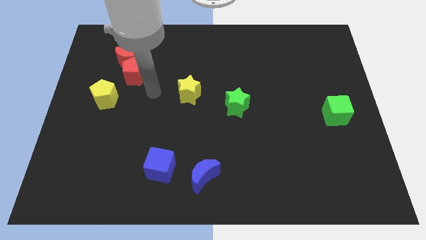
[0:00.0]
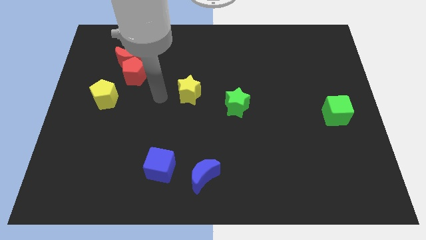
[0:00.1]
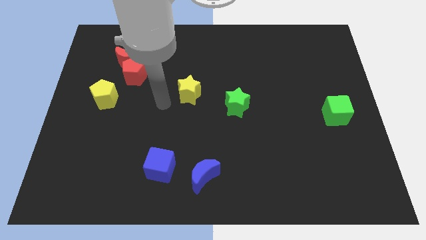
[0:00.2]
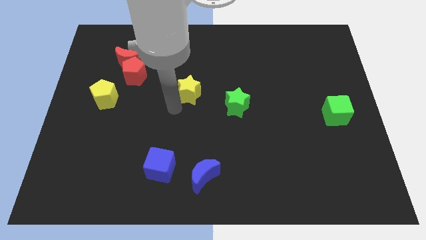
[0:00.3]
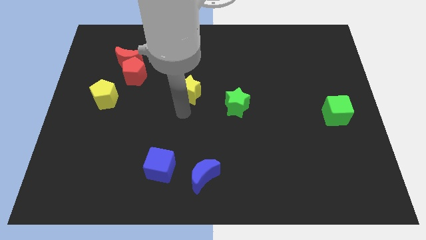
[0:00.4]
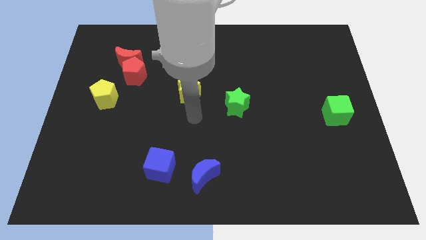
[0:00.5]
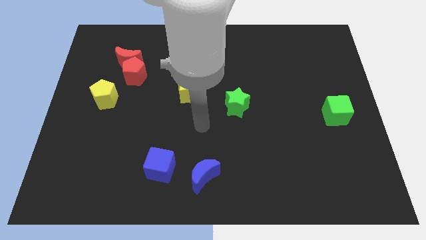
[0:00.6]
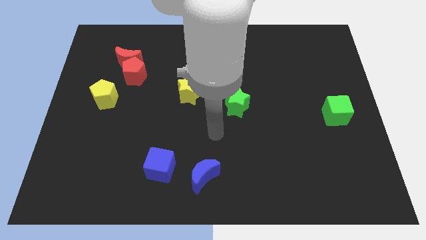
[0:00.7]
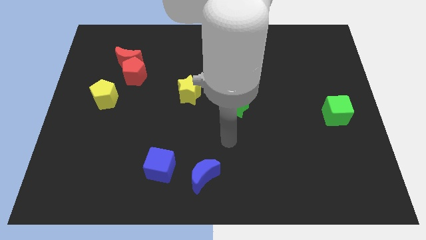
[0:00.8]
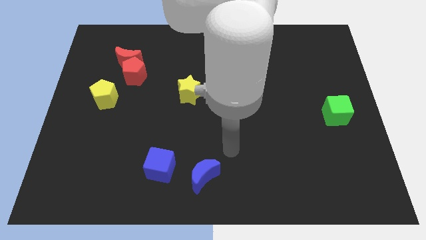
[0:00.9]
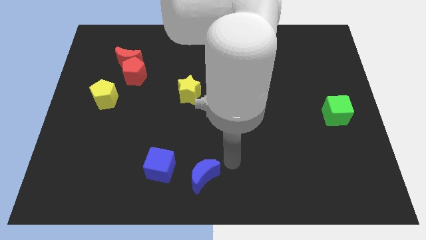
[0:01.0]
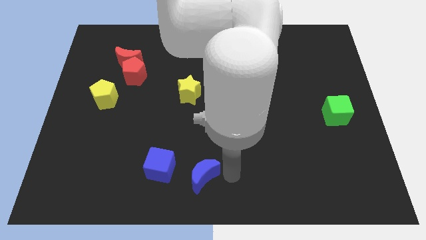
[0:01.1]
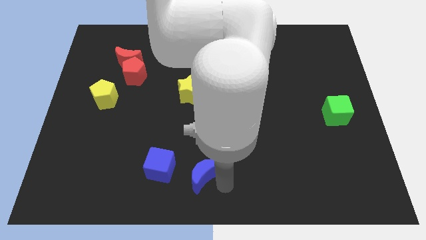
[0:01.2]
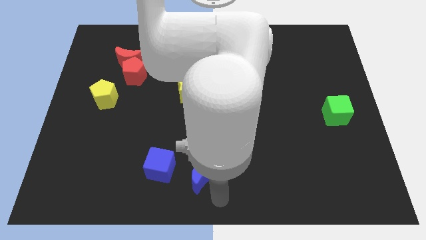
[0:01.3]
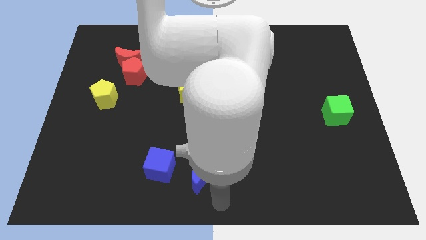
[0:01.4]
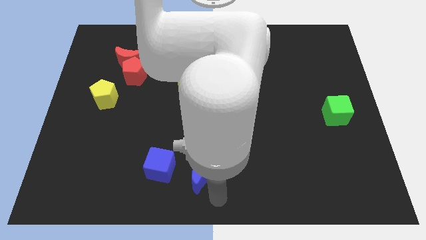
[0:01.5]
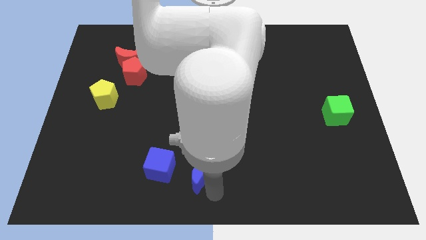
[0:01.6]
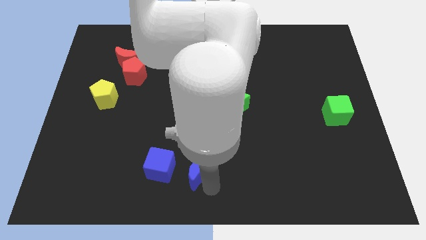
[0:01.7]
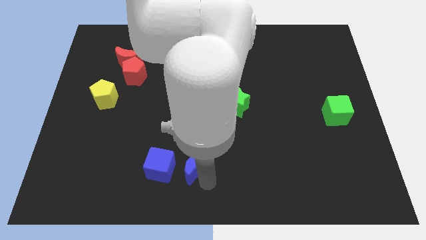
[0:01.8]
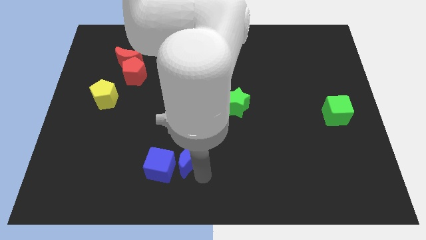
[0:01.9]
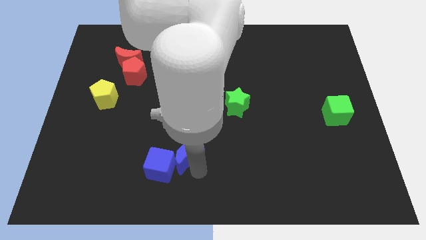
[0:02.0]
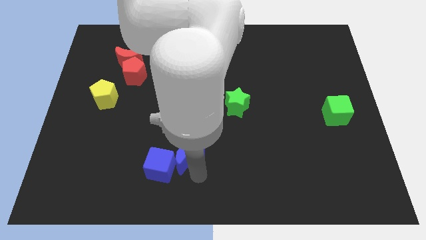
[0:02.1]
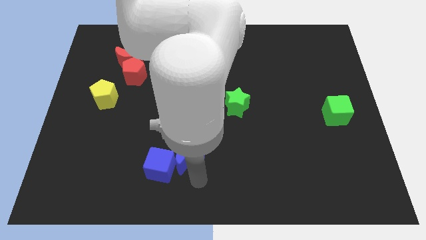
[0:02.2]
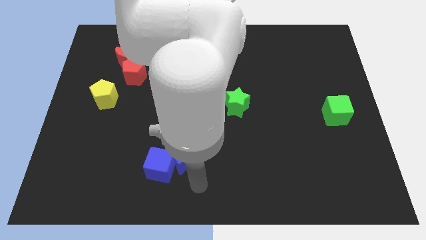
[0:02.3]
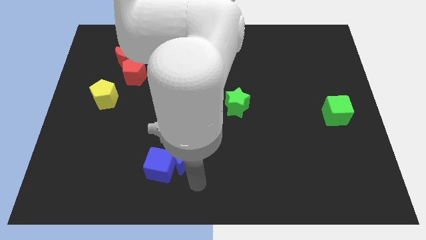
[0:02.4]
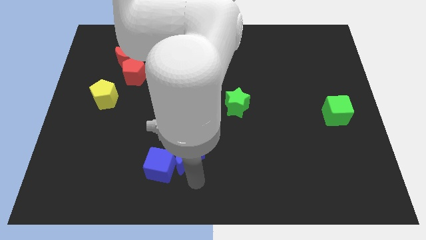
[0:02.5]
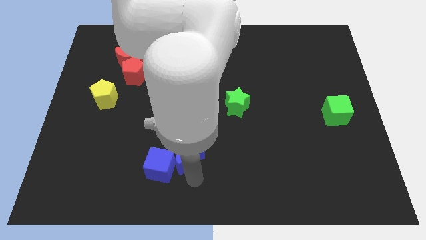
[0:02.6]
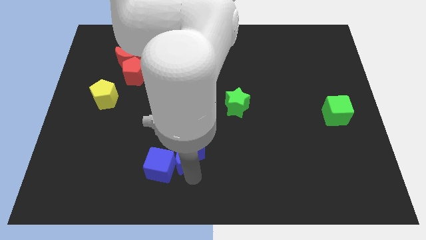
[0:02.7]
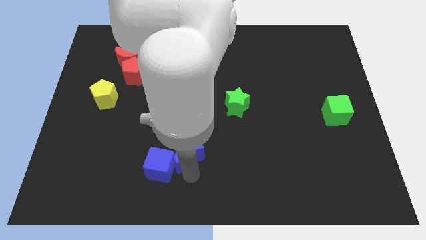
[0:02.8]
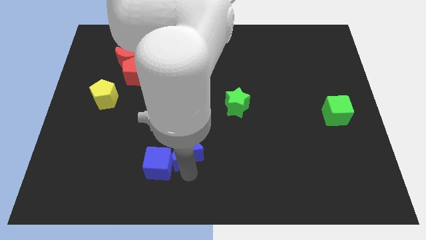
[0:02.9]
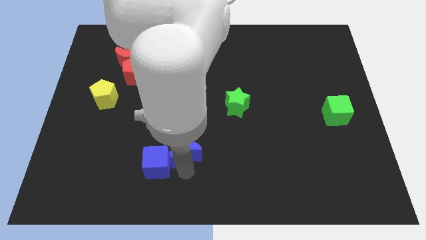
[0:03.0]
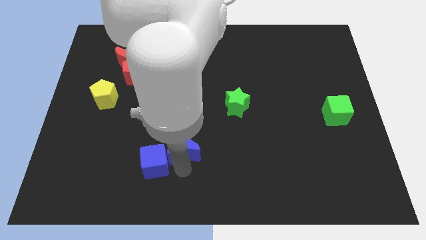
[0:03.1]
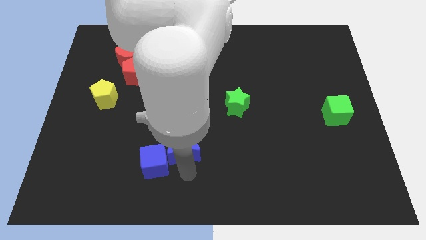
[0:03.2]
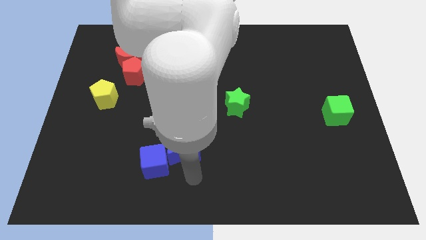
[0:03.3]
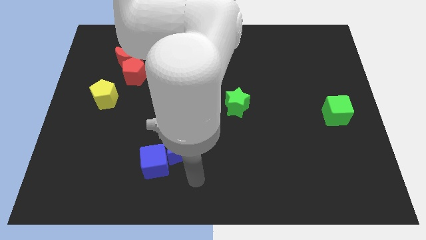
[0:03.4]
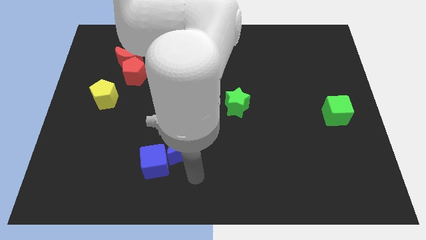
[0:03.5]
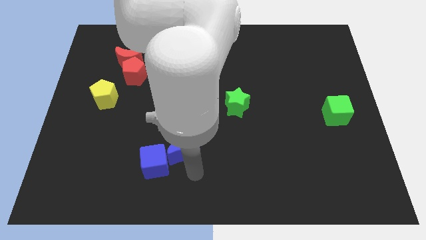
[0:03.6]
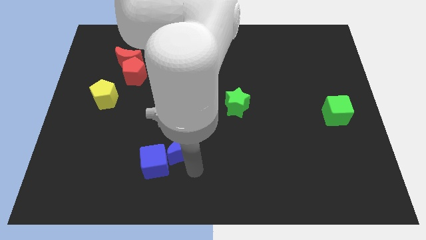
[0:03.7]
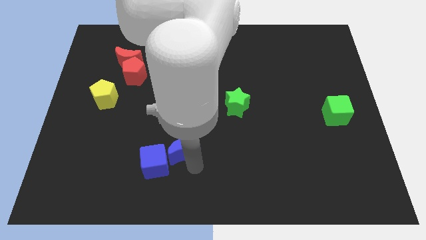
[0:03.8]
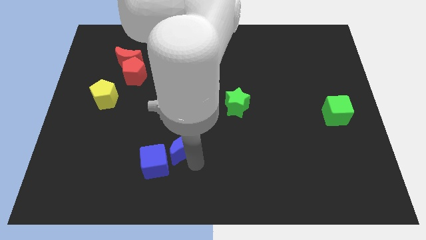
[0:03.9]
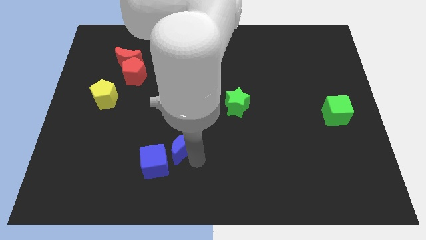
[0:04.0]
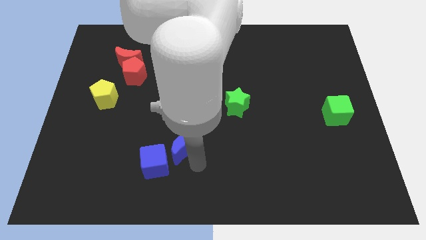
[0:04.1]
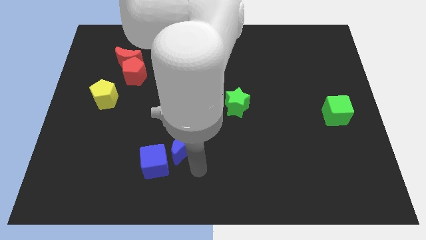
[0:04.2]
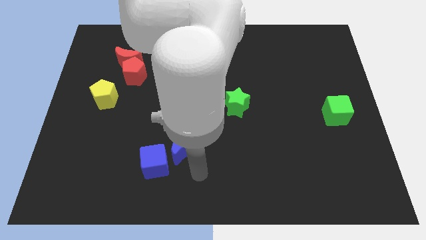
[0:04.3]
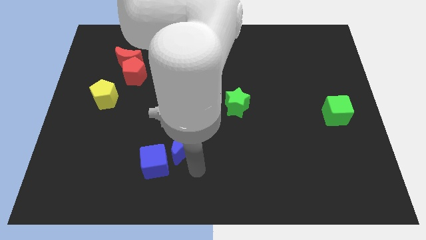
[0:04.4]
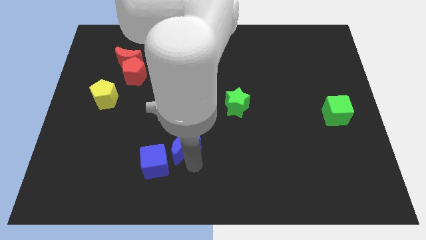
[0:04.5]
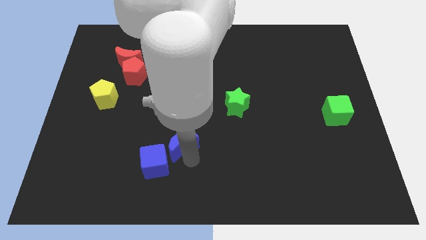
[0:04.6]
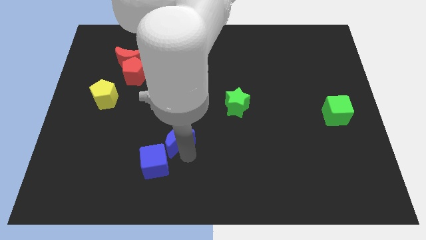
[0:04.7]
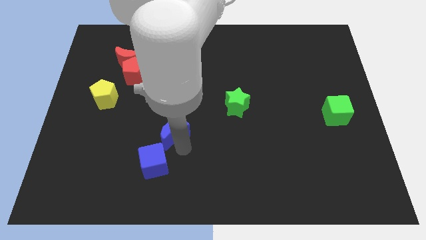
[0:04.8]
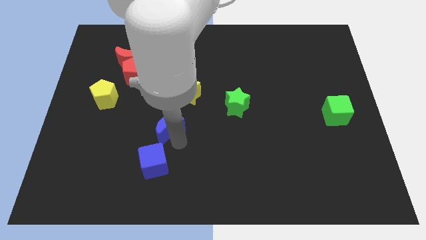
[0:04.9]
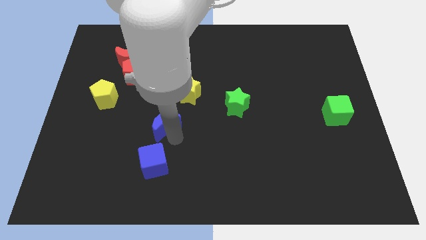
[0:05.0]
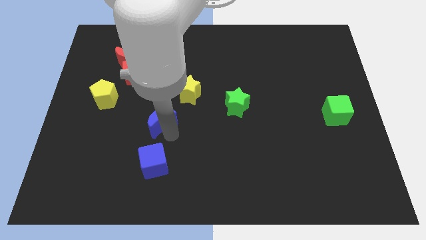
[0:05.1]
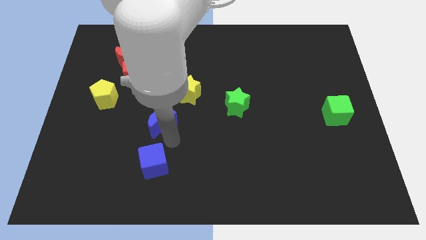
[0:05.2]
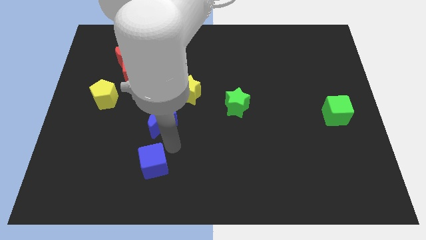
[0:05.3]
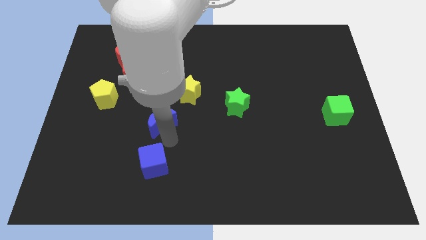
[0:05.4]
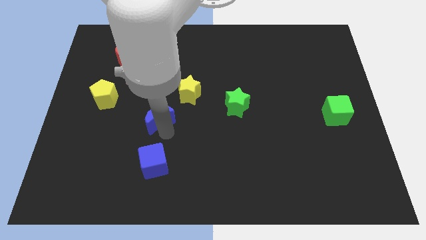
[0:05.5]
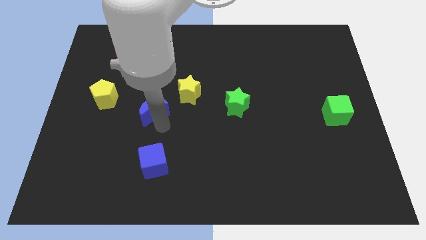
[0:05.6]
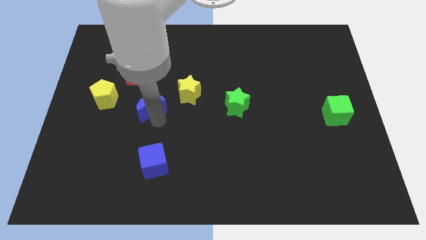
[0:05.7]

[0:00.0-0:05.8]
slide the blue moon just left of the yellow star

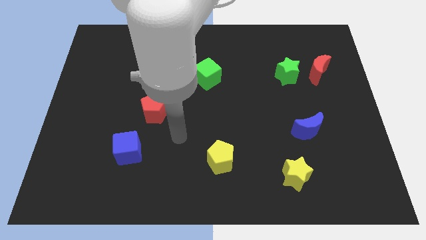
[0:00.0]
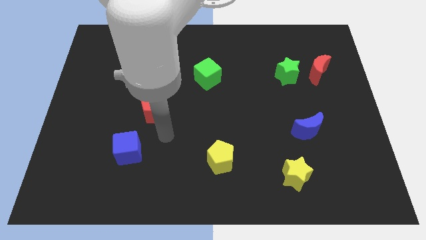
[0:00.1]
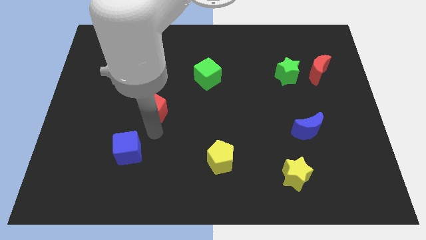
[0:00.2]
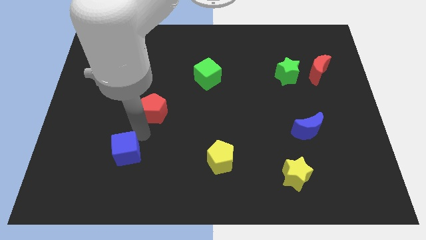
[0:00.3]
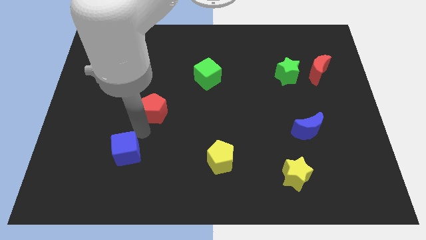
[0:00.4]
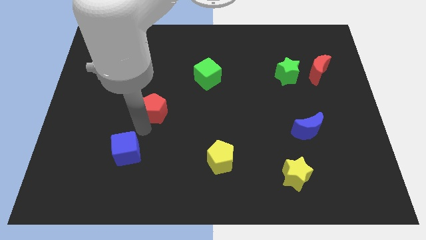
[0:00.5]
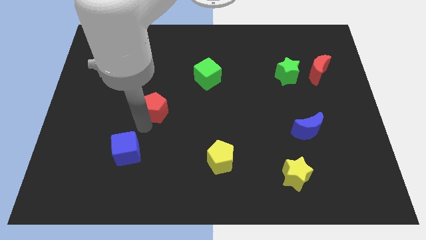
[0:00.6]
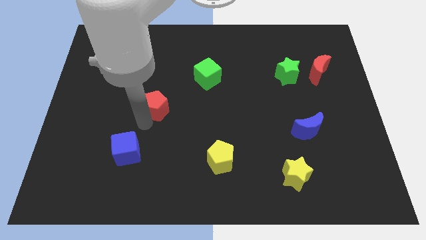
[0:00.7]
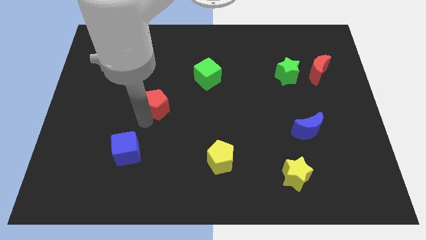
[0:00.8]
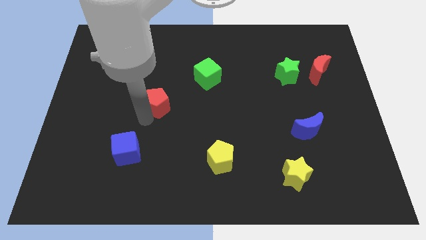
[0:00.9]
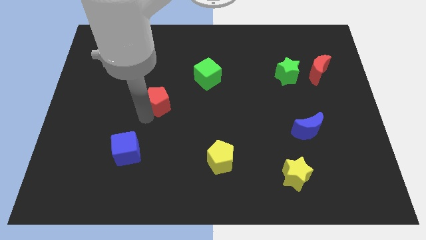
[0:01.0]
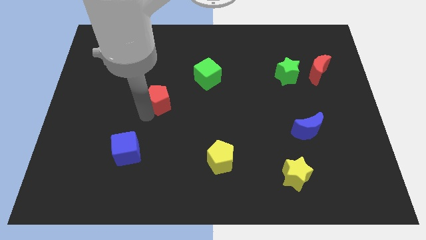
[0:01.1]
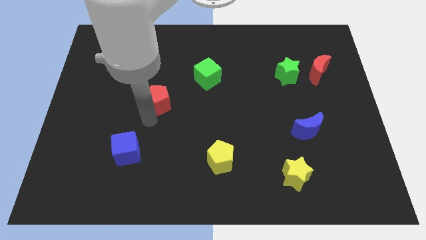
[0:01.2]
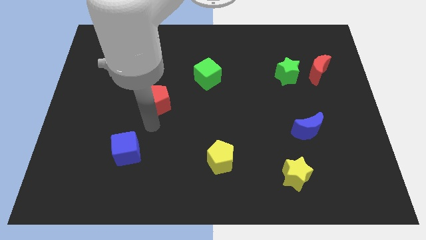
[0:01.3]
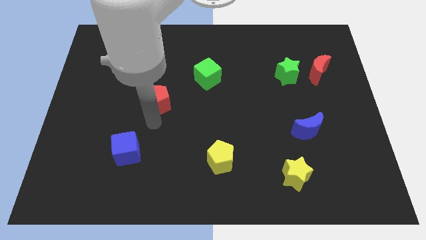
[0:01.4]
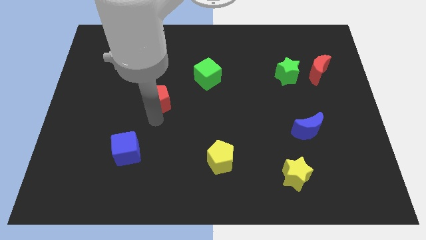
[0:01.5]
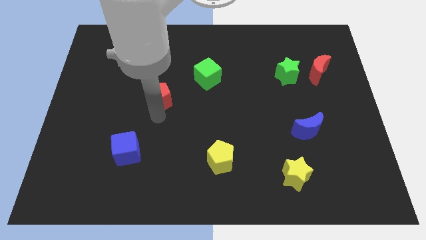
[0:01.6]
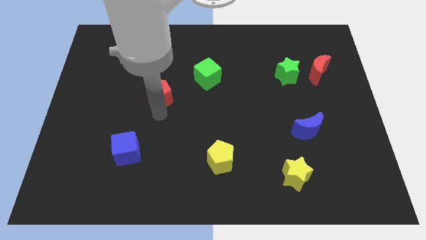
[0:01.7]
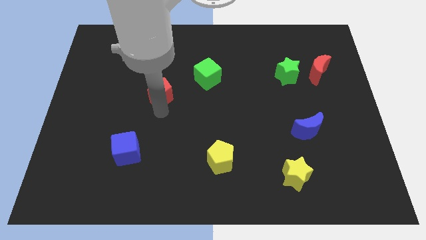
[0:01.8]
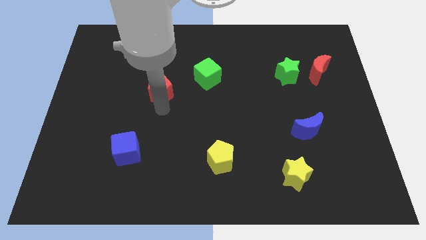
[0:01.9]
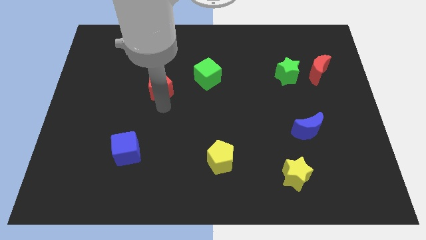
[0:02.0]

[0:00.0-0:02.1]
put the red pentagon to the left side of the green cube
